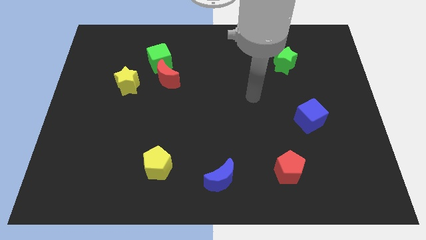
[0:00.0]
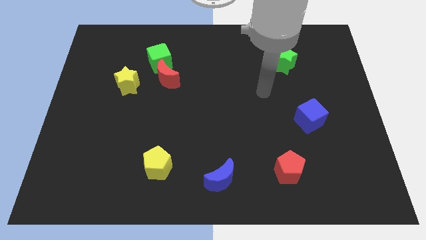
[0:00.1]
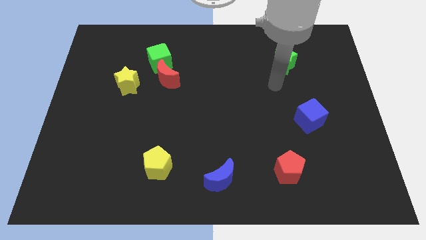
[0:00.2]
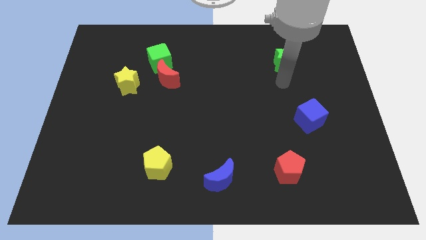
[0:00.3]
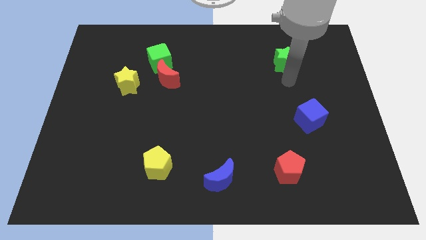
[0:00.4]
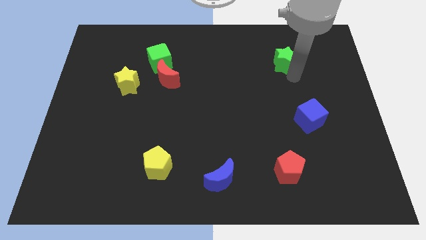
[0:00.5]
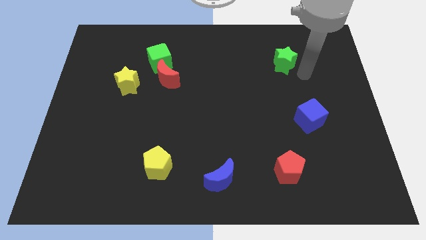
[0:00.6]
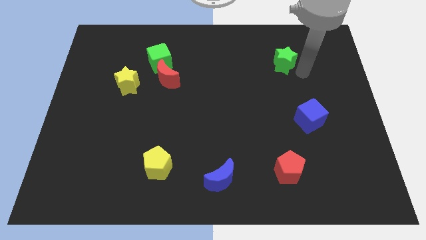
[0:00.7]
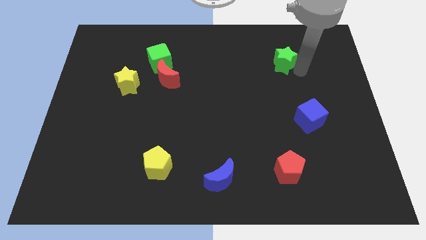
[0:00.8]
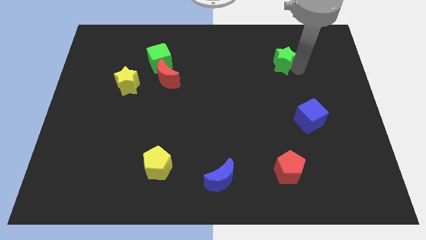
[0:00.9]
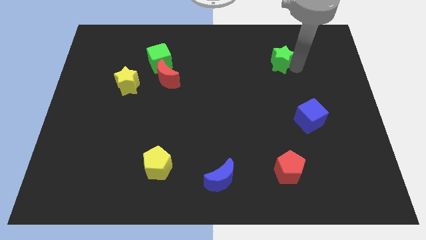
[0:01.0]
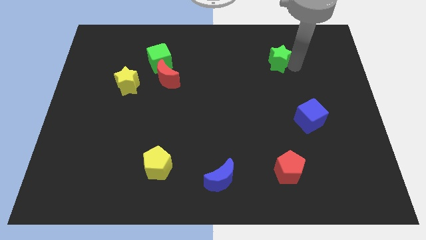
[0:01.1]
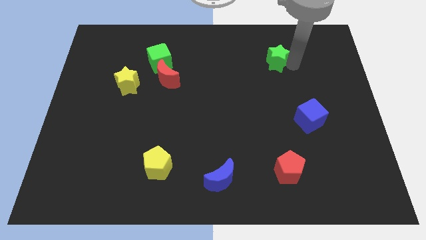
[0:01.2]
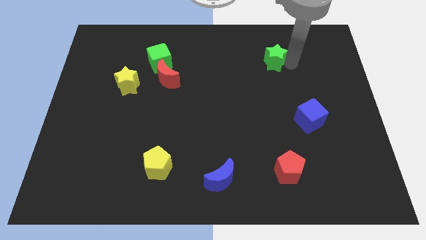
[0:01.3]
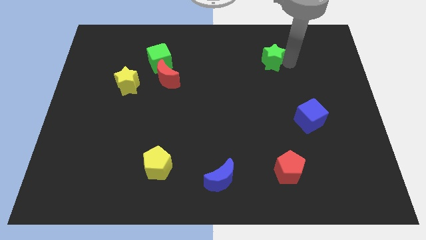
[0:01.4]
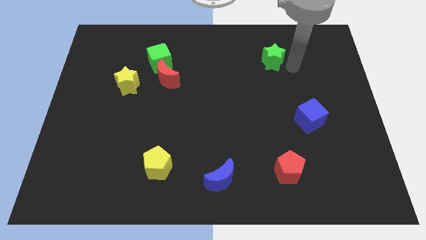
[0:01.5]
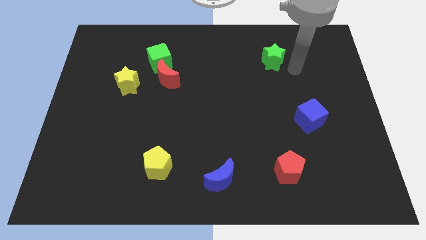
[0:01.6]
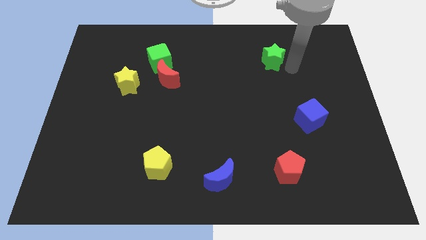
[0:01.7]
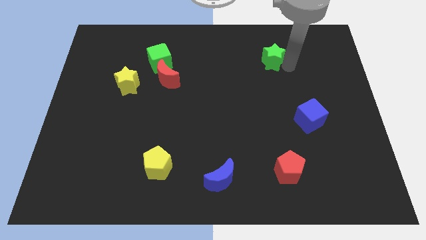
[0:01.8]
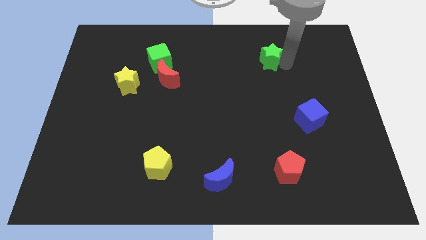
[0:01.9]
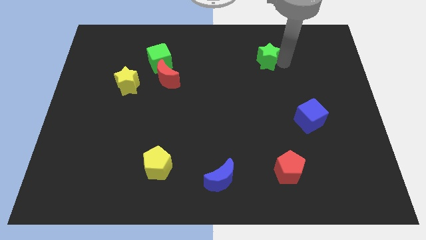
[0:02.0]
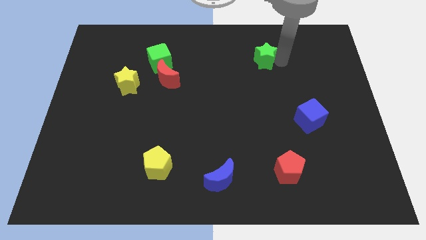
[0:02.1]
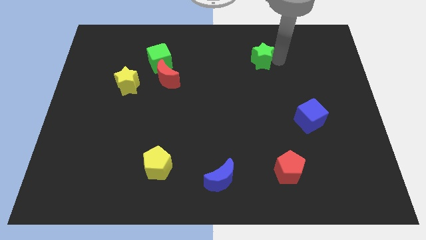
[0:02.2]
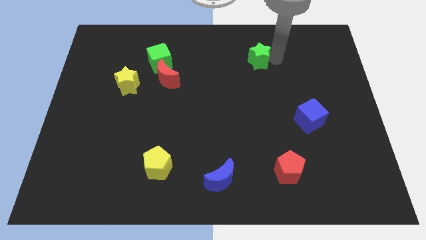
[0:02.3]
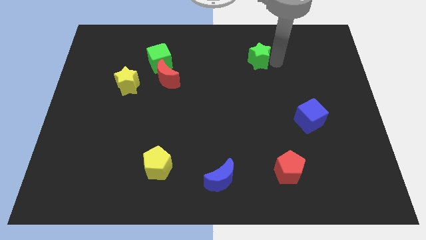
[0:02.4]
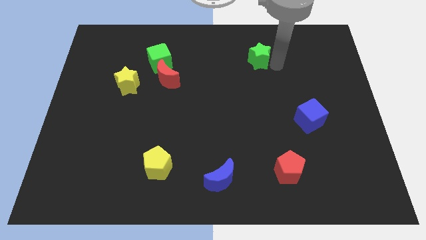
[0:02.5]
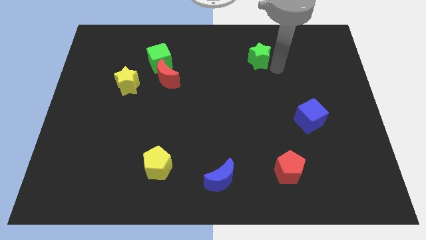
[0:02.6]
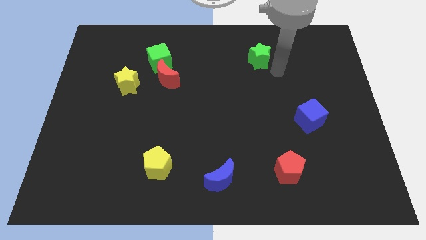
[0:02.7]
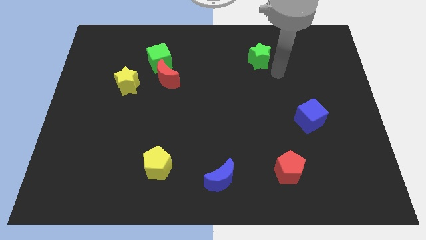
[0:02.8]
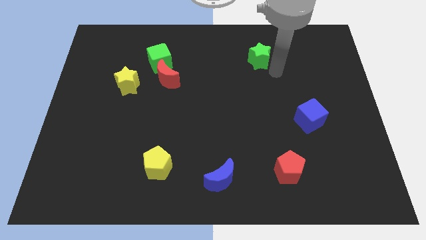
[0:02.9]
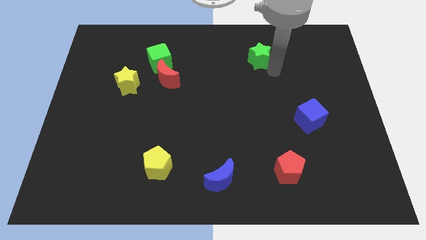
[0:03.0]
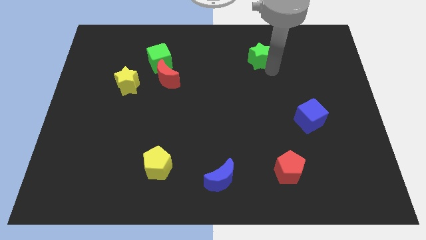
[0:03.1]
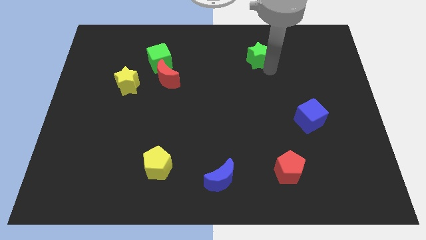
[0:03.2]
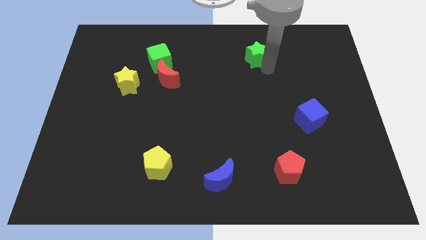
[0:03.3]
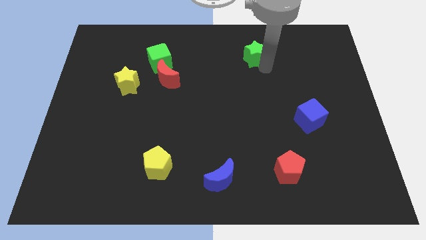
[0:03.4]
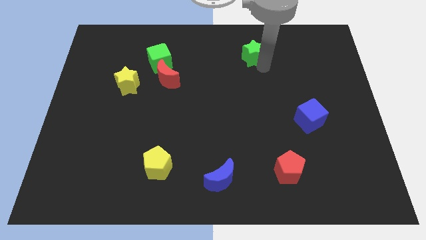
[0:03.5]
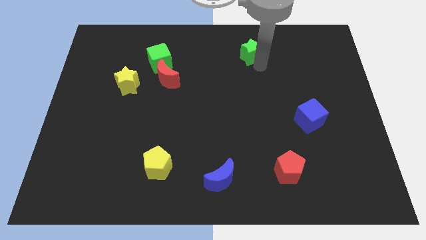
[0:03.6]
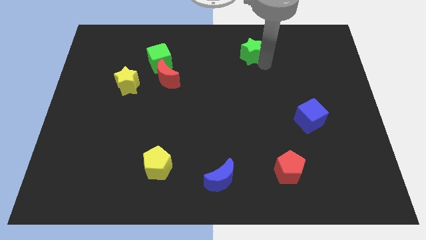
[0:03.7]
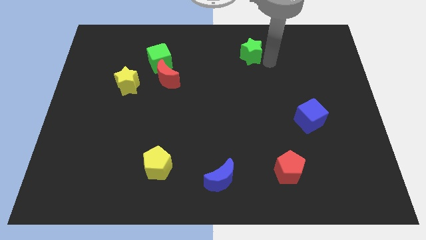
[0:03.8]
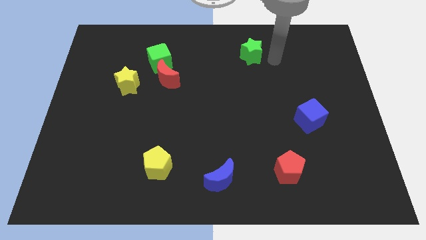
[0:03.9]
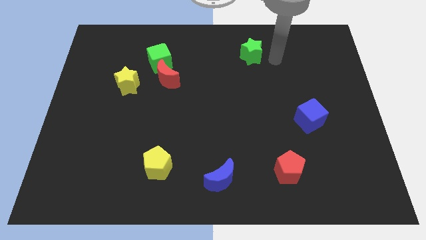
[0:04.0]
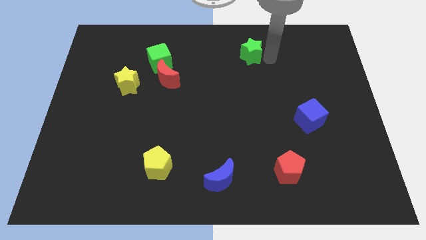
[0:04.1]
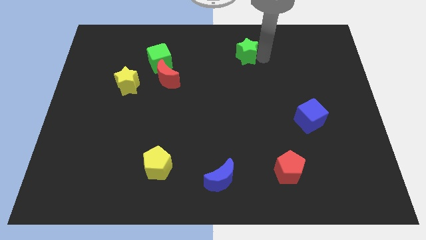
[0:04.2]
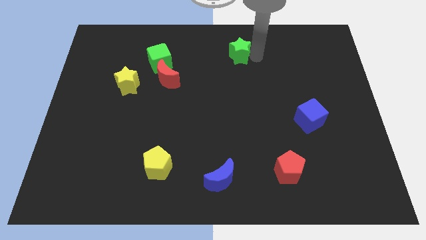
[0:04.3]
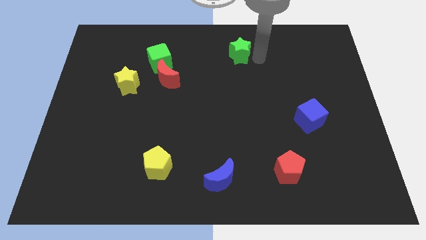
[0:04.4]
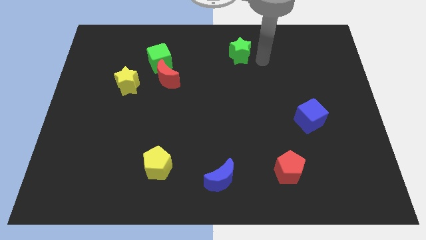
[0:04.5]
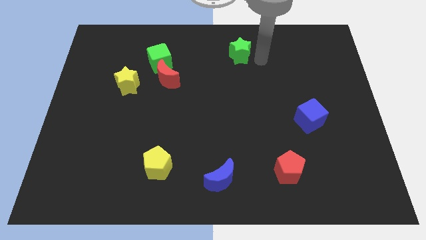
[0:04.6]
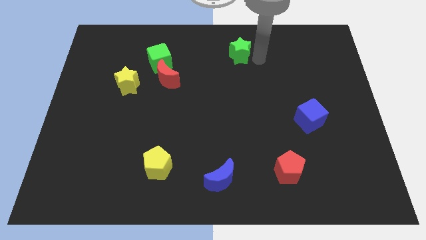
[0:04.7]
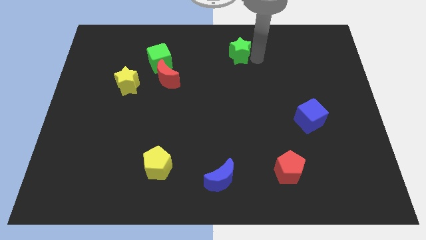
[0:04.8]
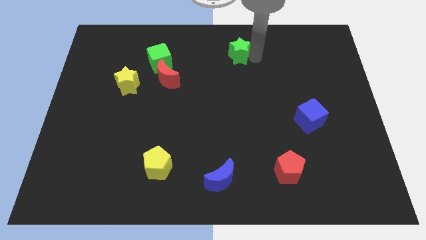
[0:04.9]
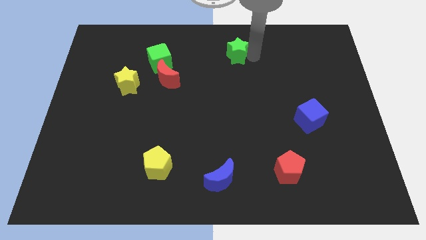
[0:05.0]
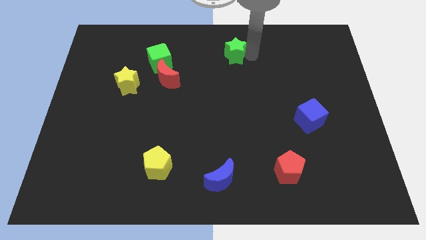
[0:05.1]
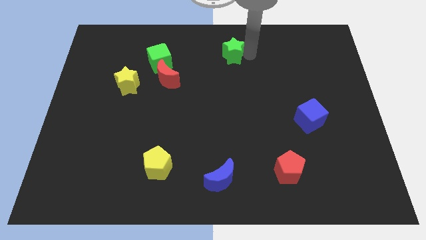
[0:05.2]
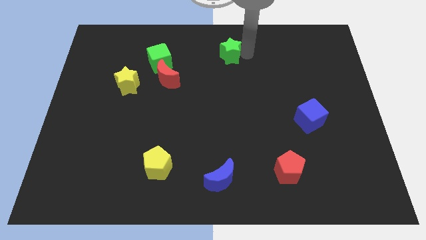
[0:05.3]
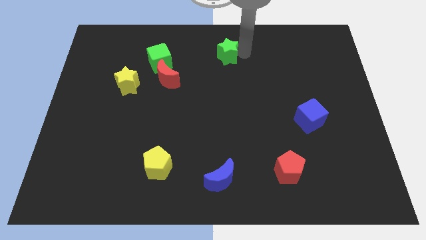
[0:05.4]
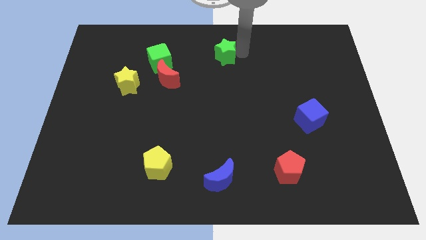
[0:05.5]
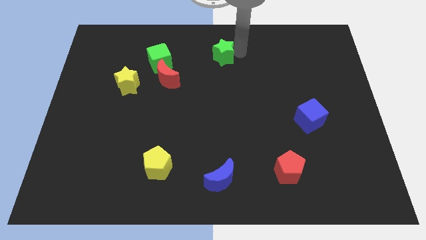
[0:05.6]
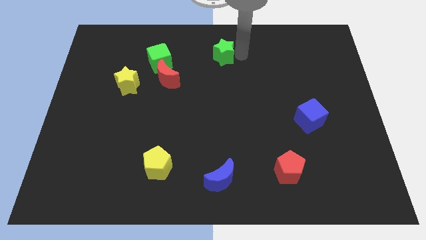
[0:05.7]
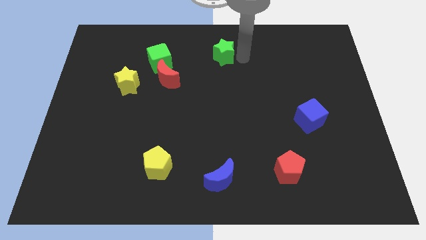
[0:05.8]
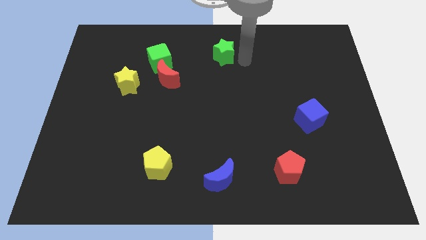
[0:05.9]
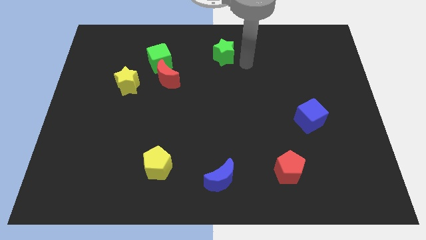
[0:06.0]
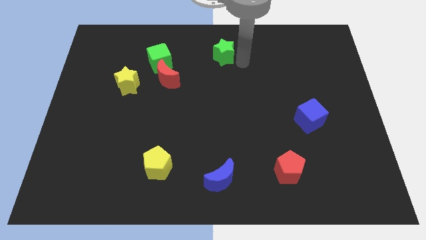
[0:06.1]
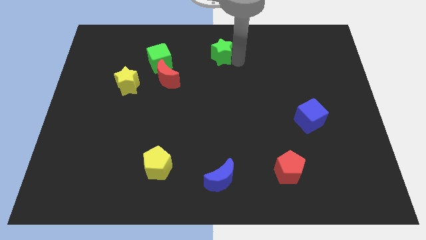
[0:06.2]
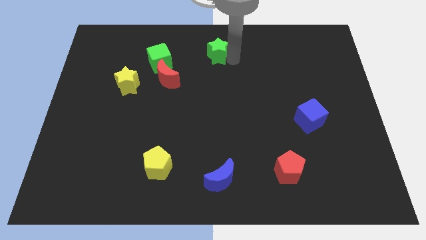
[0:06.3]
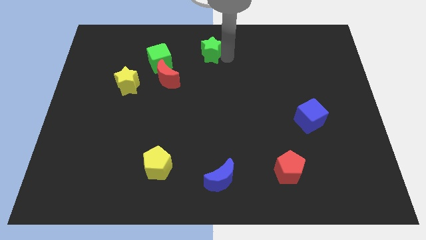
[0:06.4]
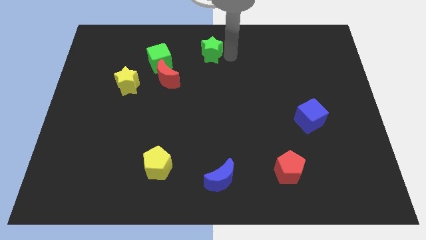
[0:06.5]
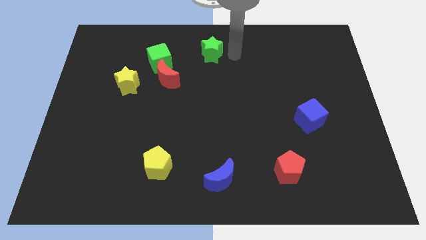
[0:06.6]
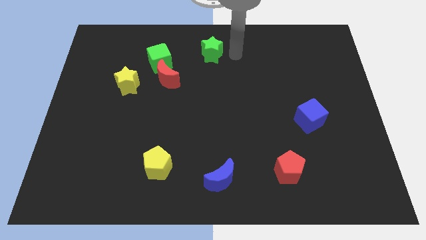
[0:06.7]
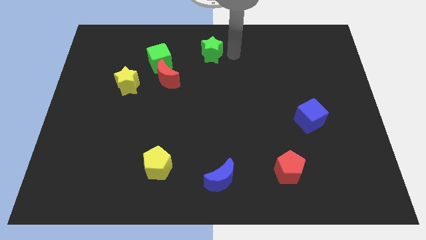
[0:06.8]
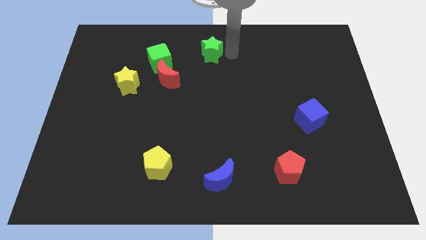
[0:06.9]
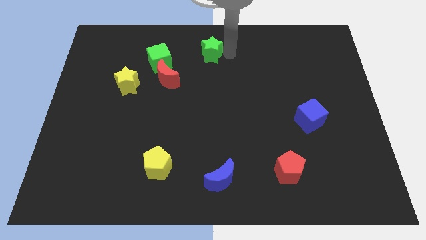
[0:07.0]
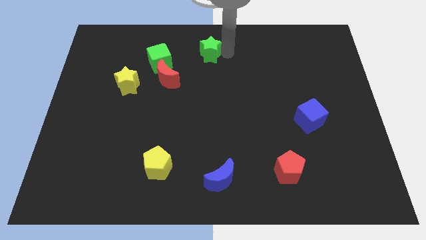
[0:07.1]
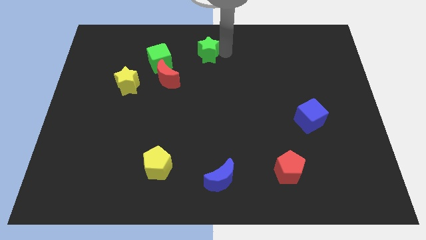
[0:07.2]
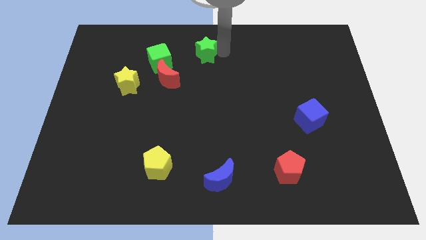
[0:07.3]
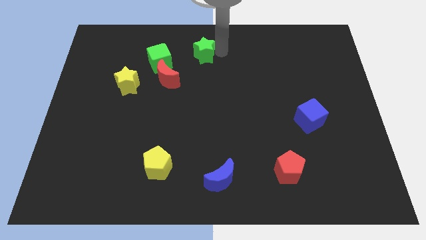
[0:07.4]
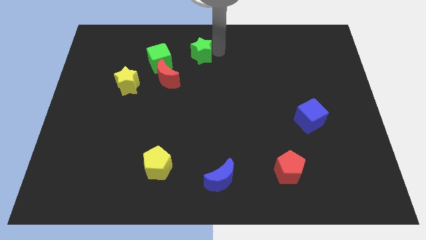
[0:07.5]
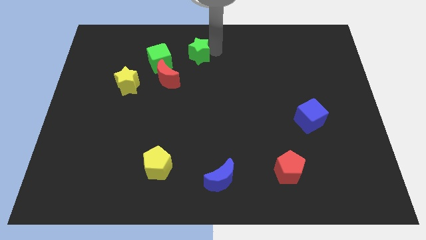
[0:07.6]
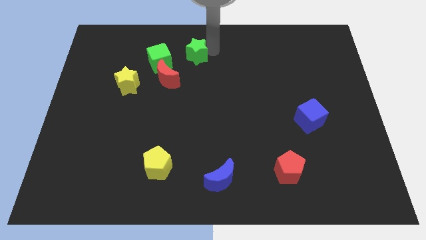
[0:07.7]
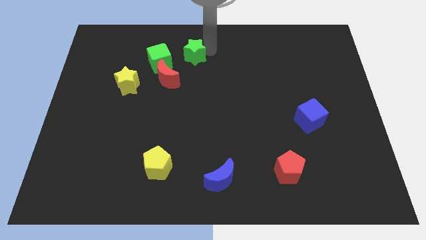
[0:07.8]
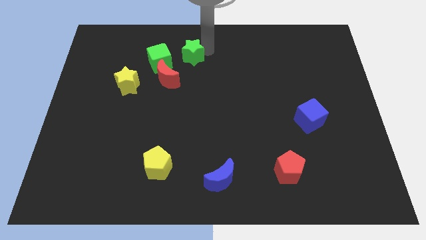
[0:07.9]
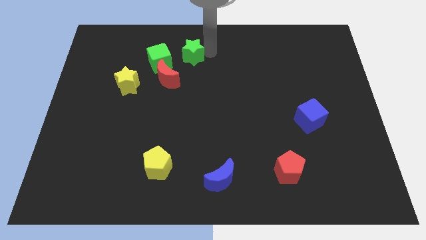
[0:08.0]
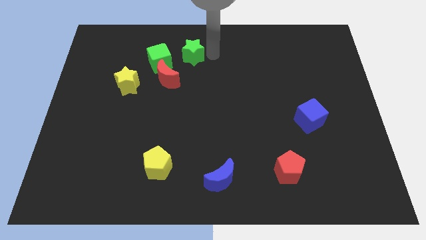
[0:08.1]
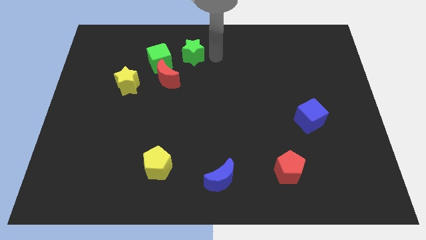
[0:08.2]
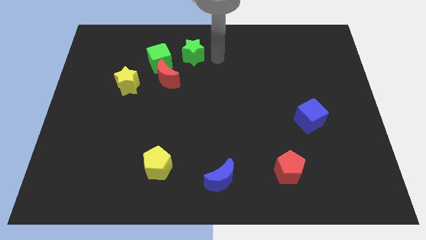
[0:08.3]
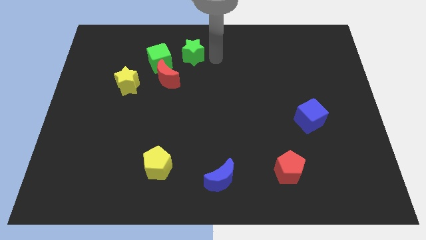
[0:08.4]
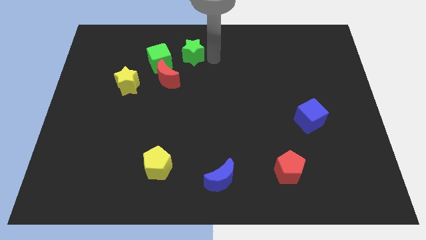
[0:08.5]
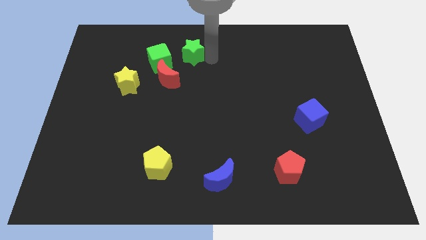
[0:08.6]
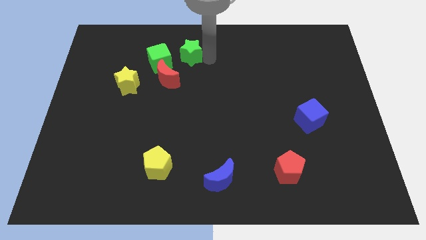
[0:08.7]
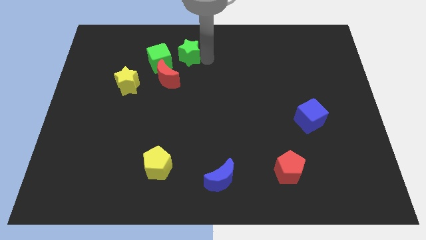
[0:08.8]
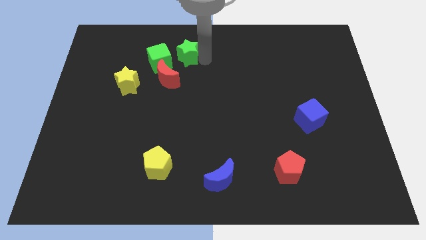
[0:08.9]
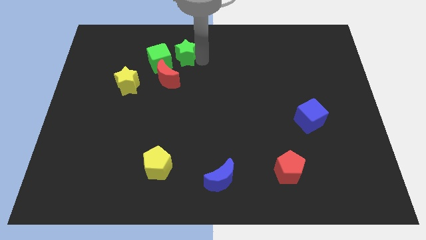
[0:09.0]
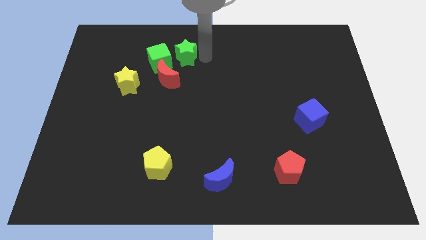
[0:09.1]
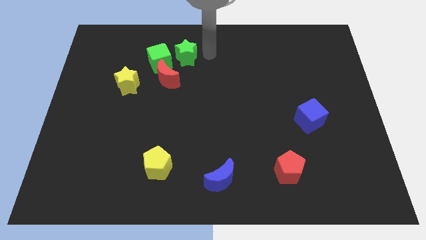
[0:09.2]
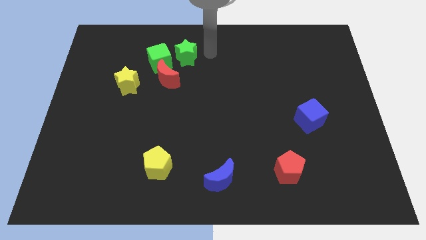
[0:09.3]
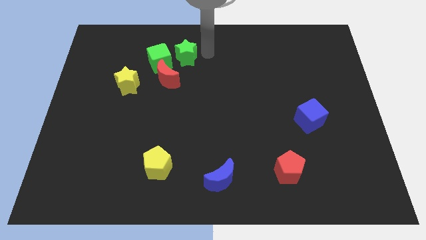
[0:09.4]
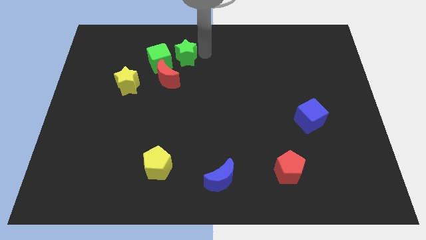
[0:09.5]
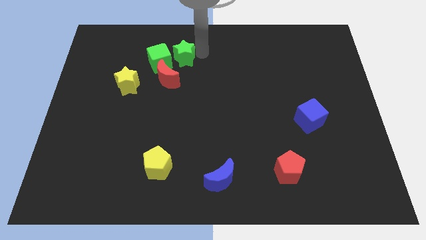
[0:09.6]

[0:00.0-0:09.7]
move the green star next to the green cube
